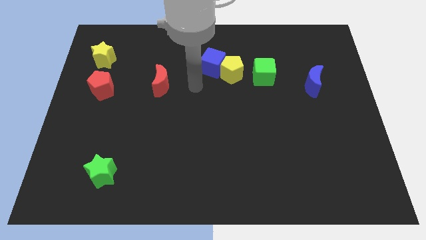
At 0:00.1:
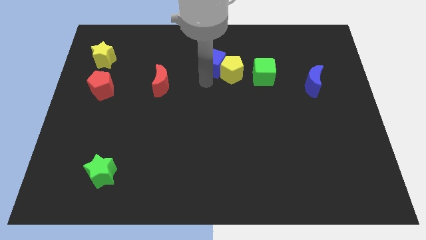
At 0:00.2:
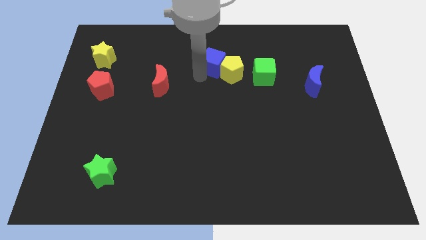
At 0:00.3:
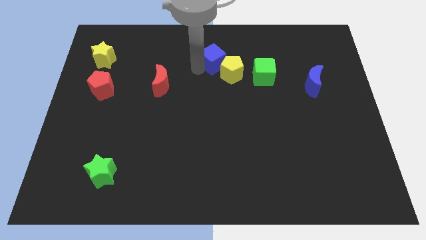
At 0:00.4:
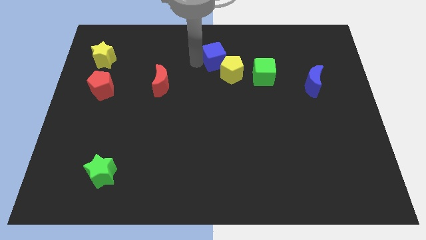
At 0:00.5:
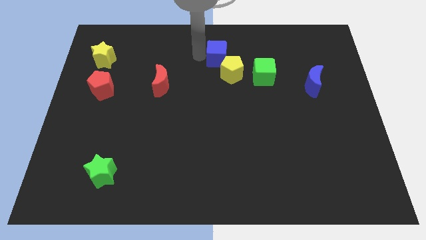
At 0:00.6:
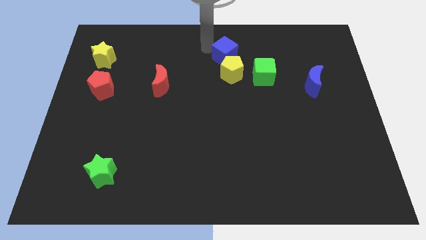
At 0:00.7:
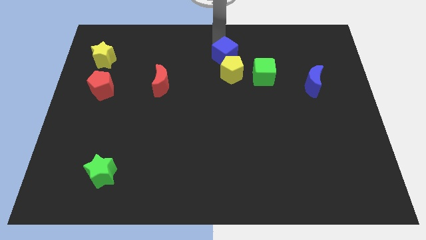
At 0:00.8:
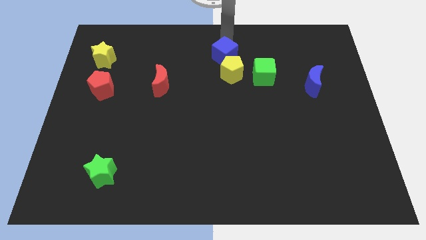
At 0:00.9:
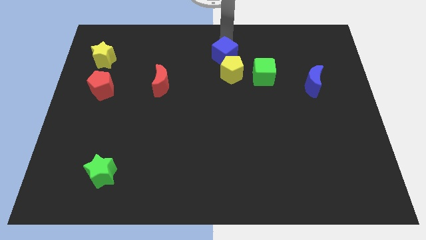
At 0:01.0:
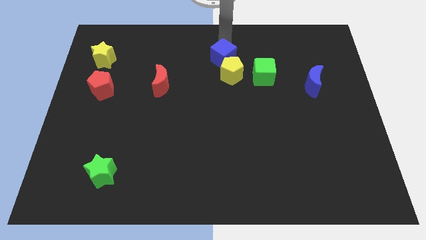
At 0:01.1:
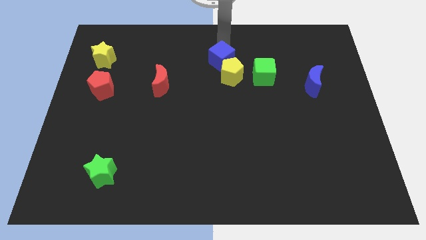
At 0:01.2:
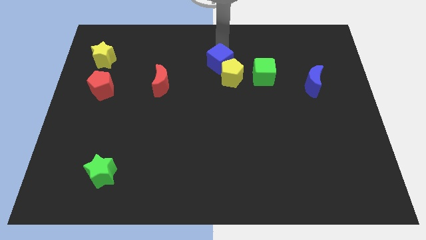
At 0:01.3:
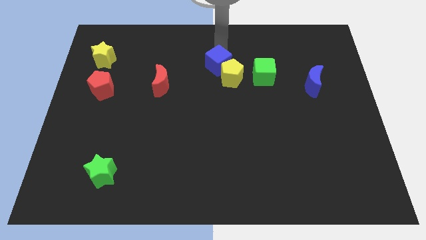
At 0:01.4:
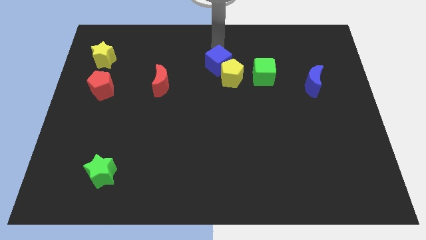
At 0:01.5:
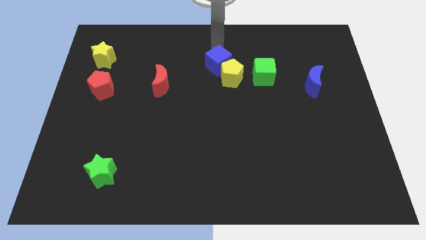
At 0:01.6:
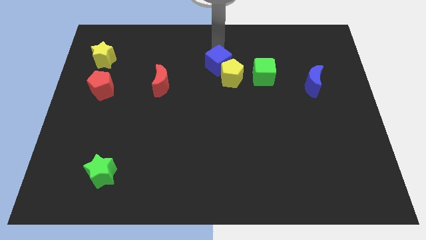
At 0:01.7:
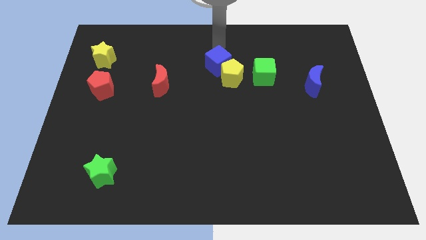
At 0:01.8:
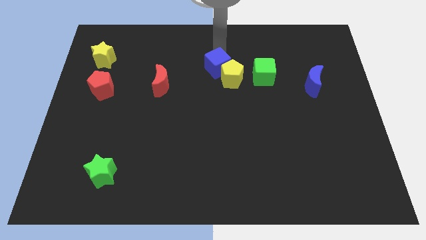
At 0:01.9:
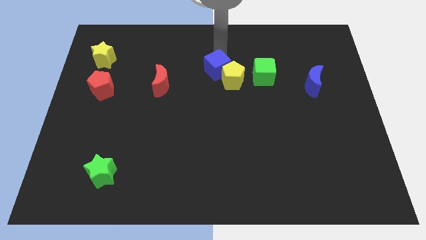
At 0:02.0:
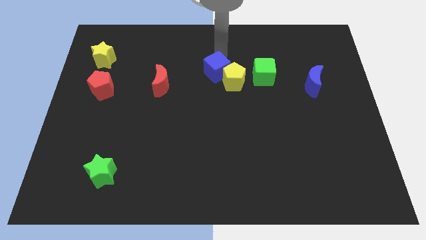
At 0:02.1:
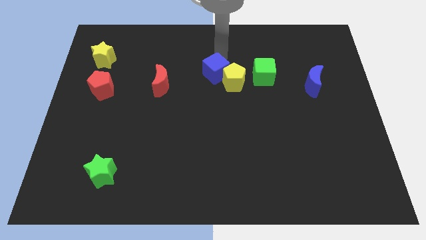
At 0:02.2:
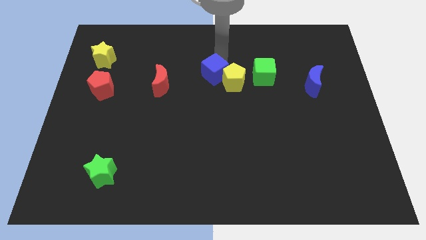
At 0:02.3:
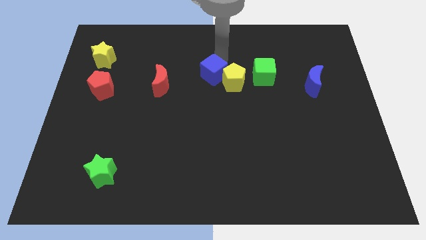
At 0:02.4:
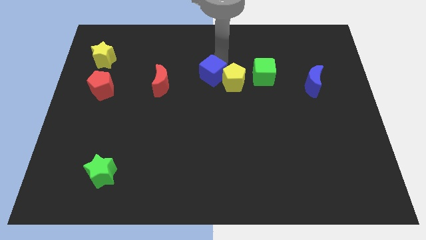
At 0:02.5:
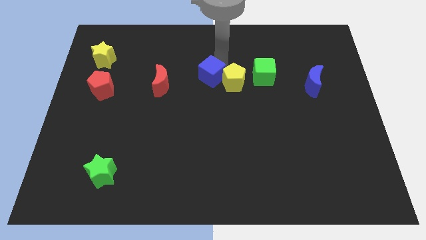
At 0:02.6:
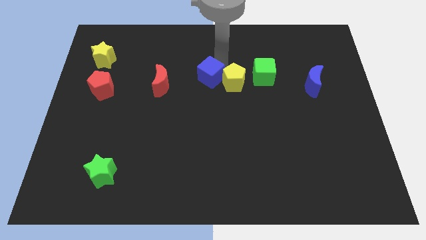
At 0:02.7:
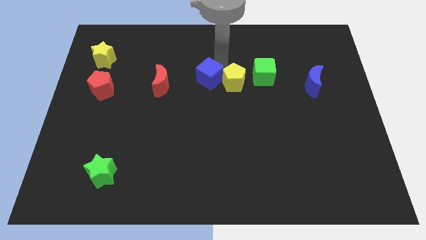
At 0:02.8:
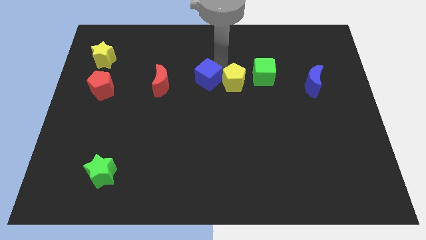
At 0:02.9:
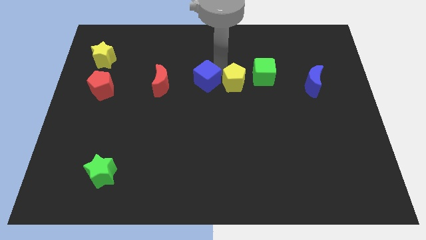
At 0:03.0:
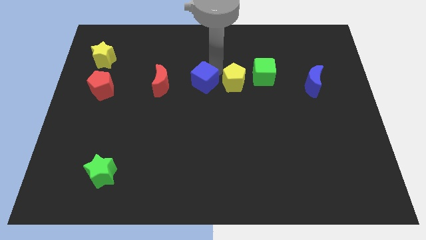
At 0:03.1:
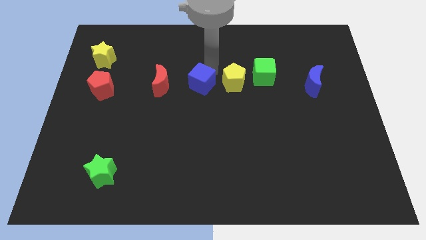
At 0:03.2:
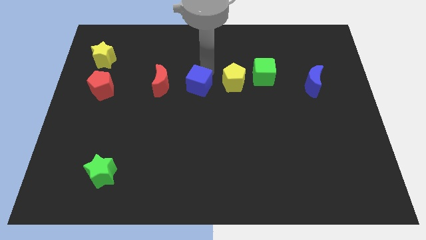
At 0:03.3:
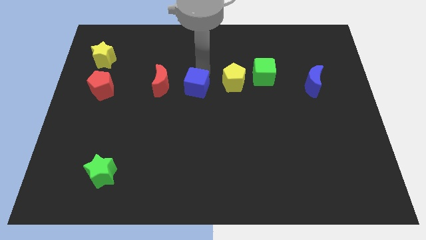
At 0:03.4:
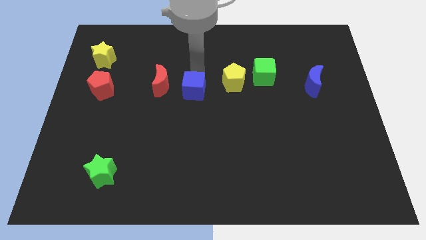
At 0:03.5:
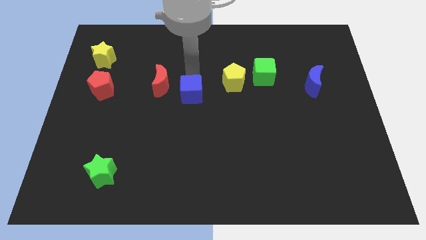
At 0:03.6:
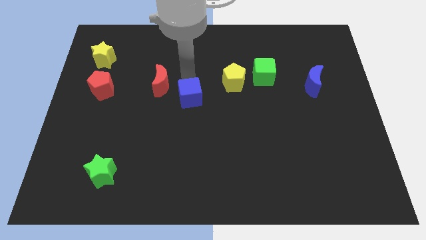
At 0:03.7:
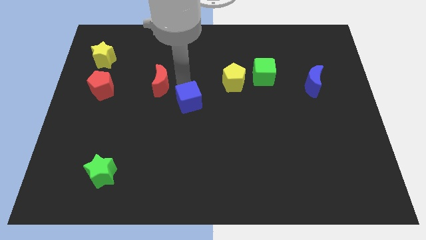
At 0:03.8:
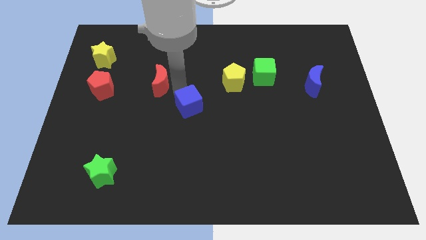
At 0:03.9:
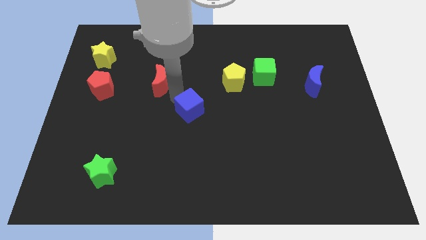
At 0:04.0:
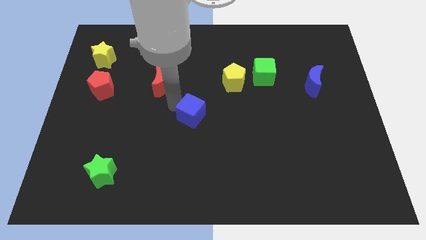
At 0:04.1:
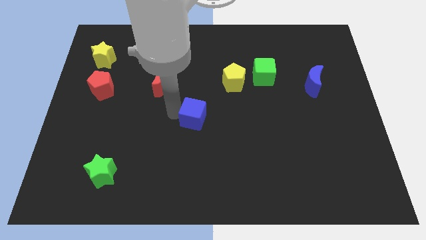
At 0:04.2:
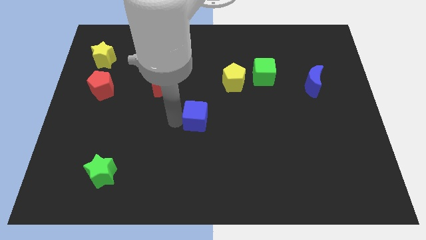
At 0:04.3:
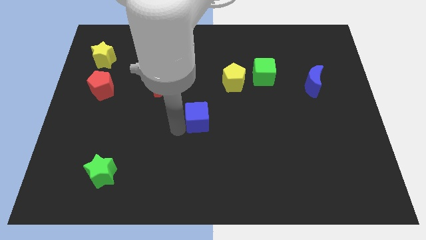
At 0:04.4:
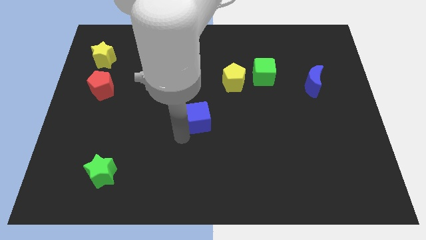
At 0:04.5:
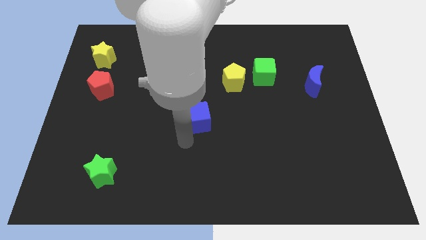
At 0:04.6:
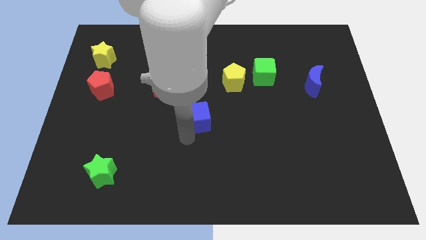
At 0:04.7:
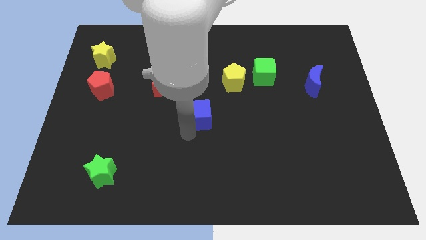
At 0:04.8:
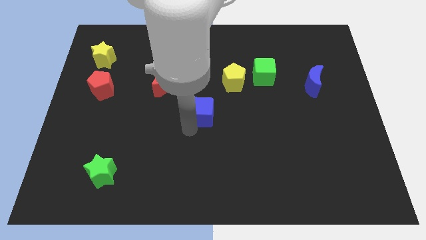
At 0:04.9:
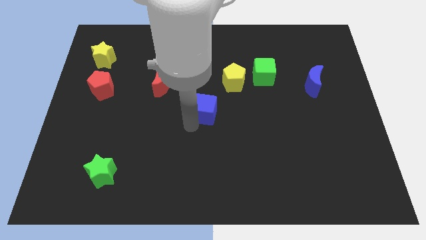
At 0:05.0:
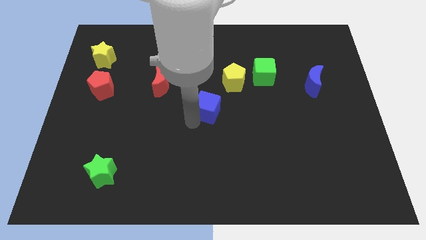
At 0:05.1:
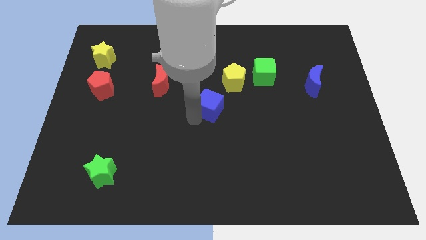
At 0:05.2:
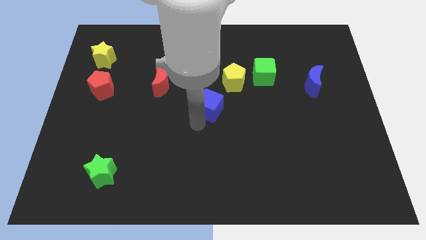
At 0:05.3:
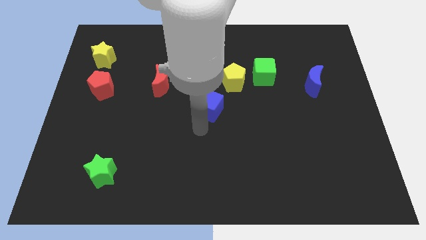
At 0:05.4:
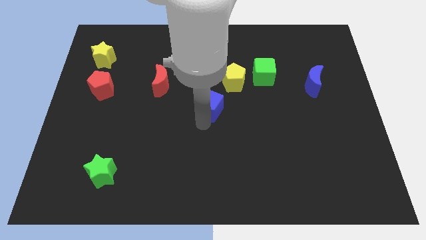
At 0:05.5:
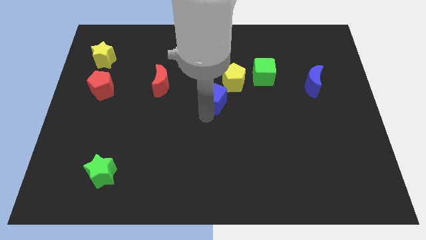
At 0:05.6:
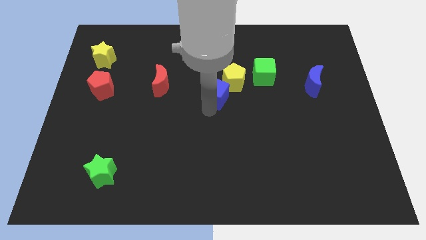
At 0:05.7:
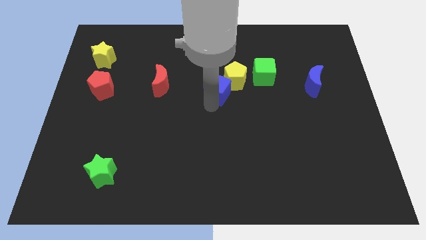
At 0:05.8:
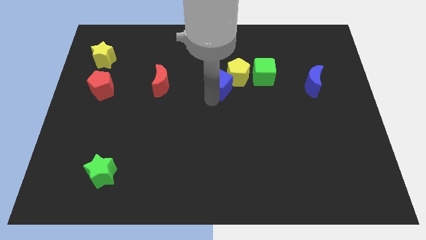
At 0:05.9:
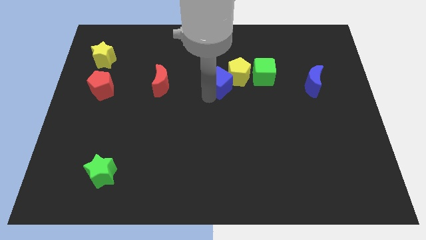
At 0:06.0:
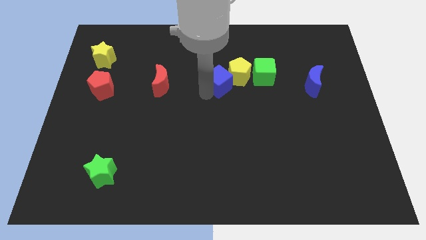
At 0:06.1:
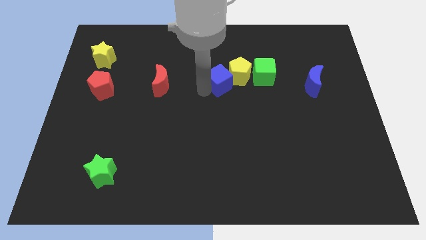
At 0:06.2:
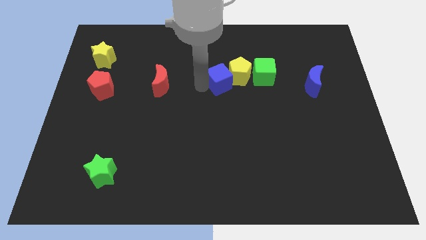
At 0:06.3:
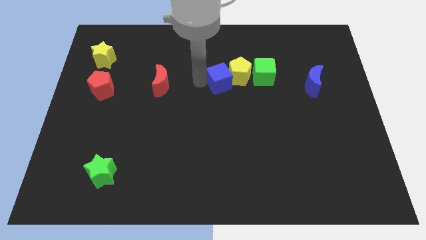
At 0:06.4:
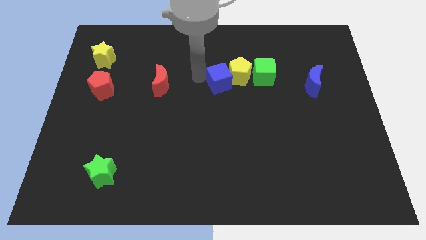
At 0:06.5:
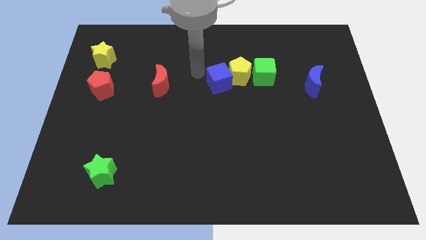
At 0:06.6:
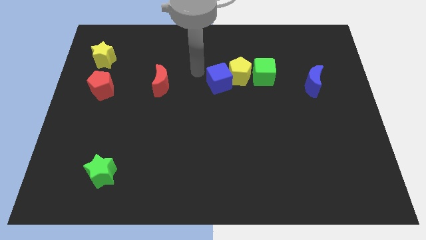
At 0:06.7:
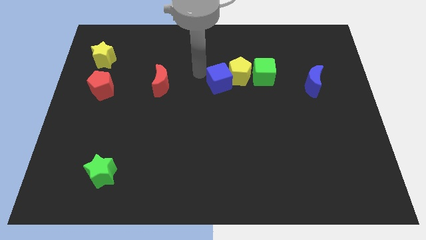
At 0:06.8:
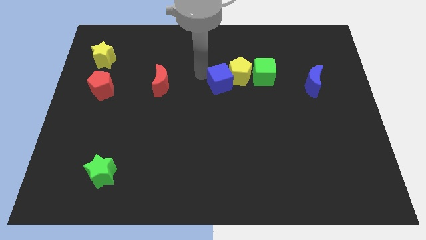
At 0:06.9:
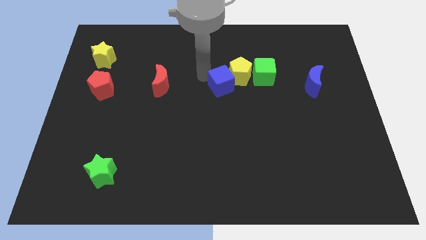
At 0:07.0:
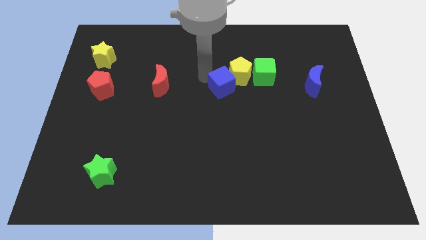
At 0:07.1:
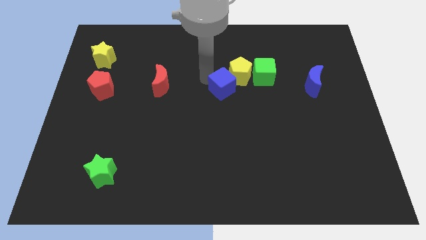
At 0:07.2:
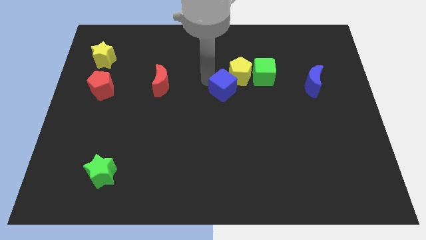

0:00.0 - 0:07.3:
slightly slide the blue cube down and right

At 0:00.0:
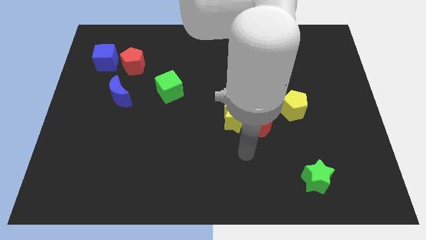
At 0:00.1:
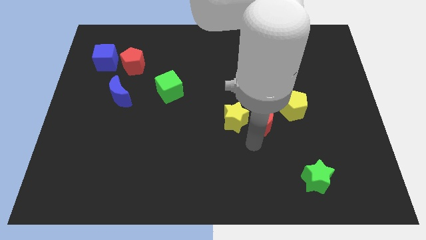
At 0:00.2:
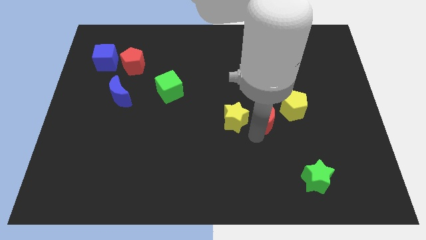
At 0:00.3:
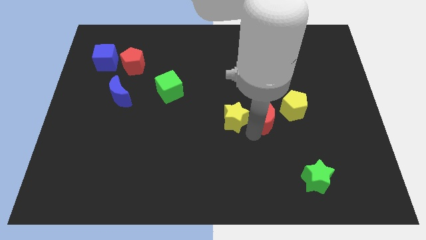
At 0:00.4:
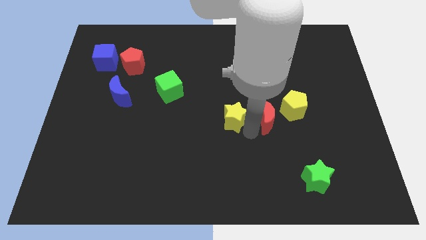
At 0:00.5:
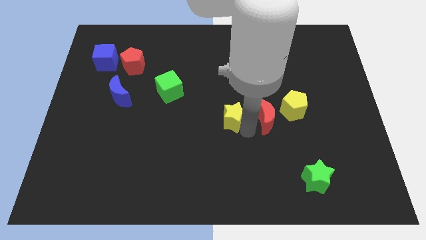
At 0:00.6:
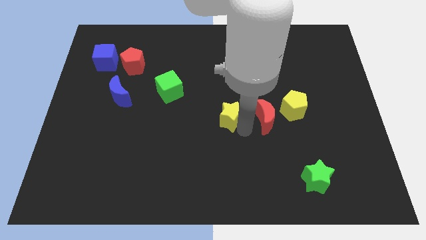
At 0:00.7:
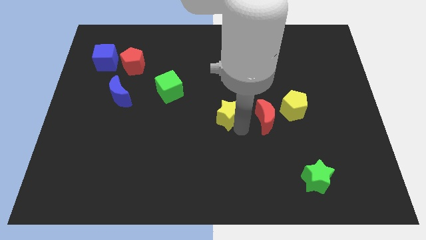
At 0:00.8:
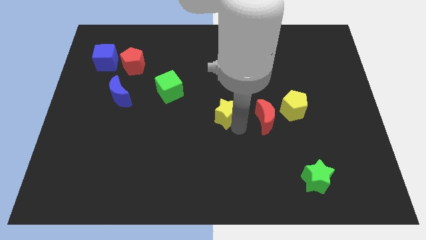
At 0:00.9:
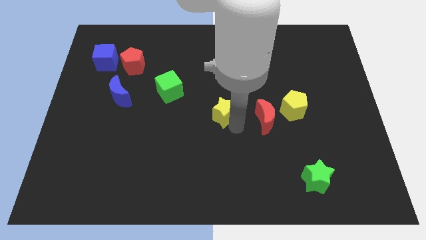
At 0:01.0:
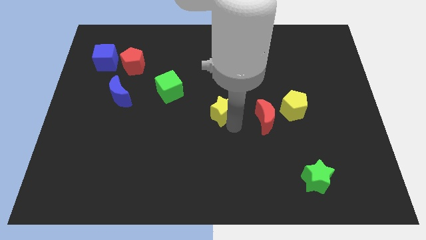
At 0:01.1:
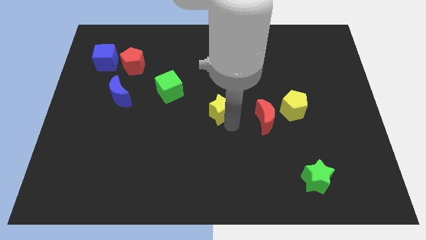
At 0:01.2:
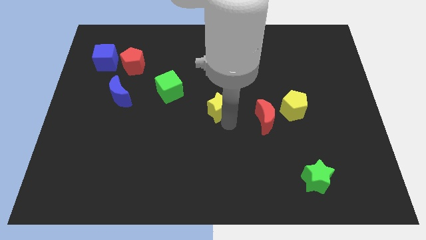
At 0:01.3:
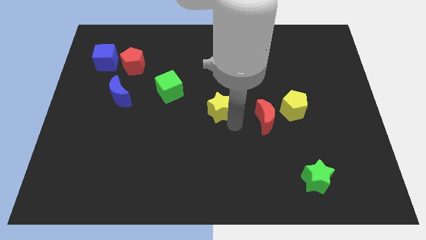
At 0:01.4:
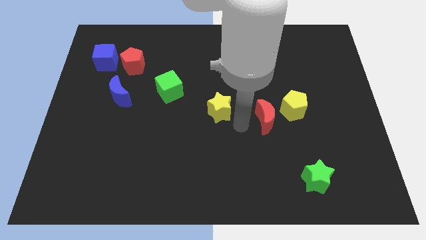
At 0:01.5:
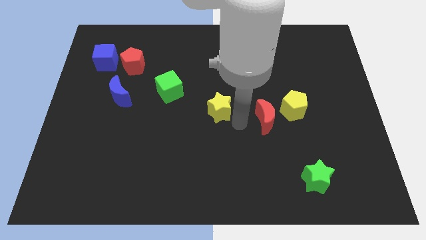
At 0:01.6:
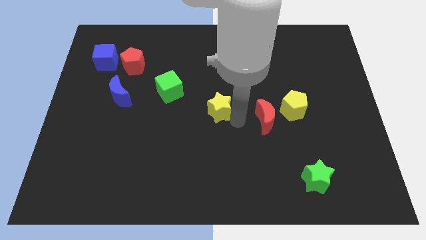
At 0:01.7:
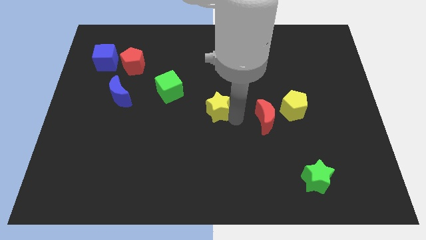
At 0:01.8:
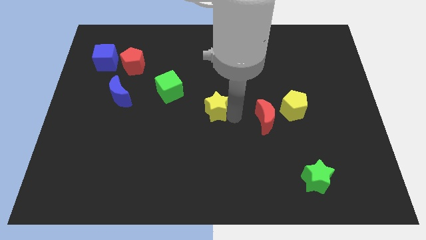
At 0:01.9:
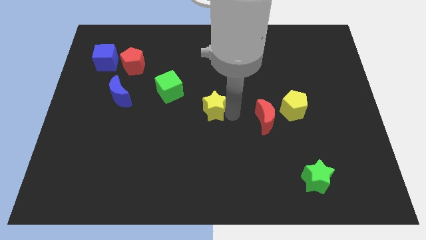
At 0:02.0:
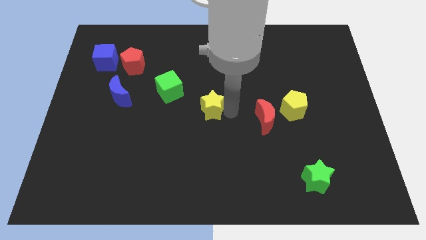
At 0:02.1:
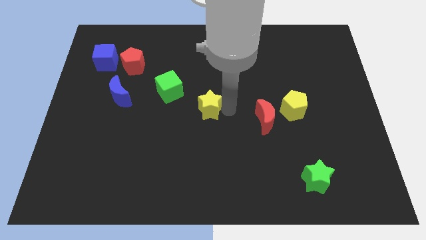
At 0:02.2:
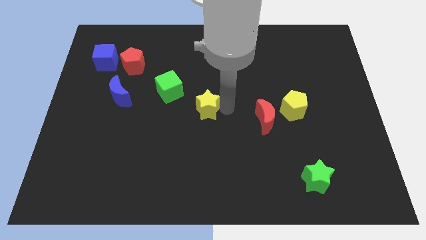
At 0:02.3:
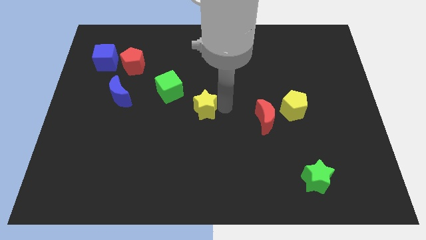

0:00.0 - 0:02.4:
slightly slide the yellow star upwards and left diagonally
